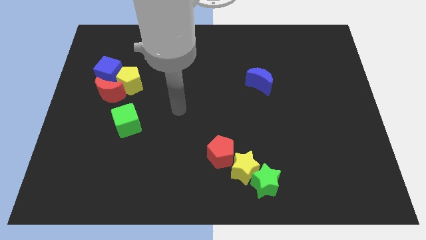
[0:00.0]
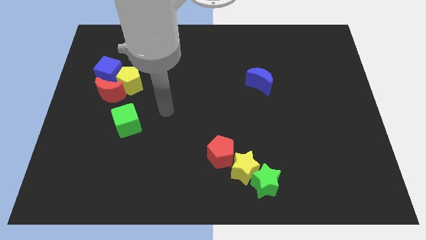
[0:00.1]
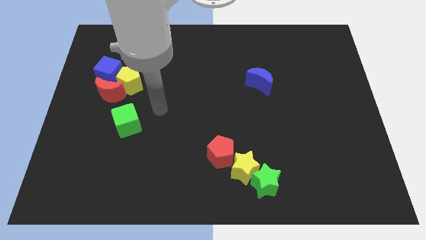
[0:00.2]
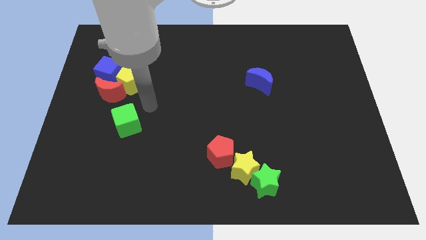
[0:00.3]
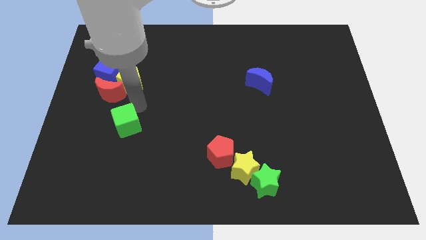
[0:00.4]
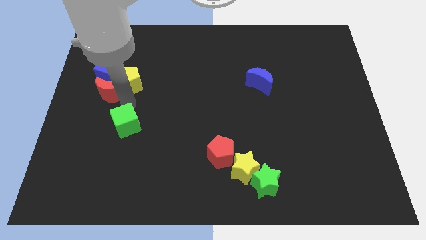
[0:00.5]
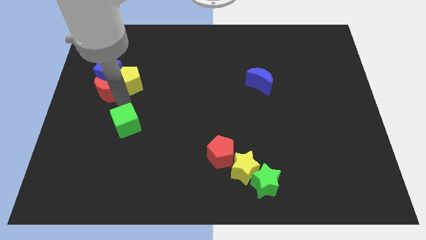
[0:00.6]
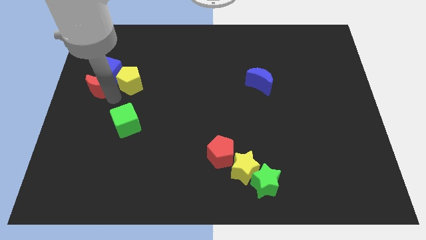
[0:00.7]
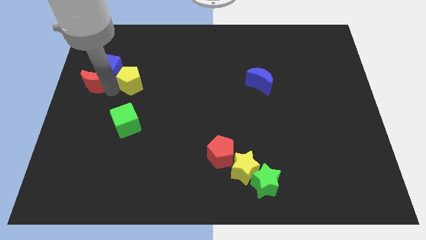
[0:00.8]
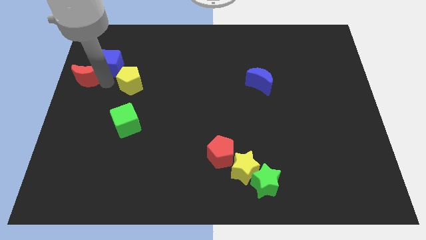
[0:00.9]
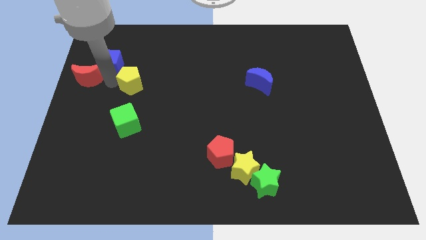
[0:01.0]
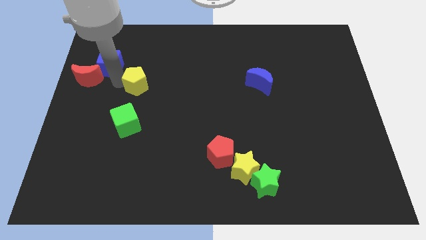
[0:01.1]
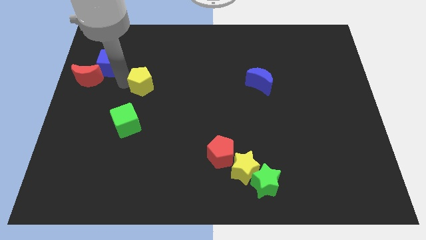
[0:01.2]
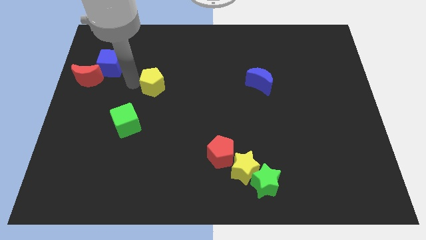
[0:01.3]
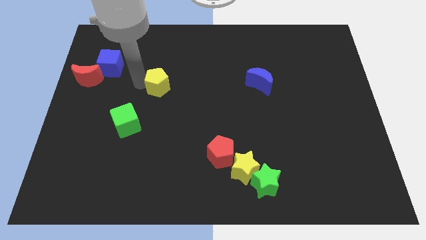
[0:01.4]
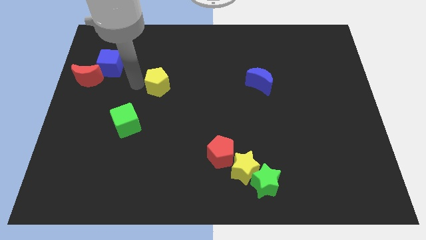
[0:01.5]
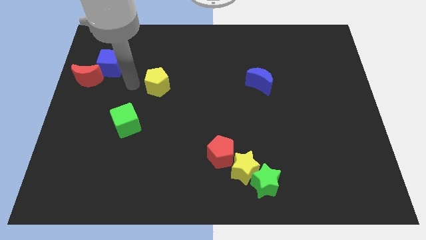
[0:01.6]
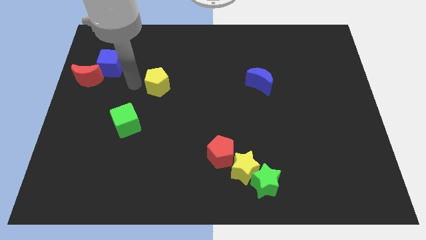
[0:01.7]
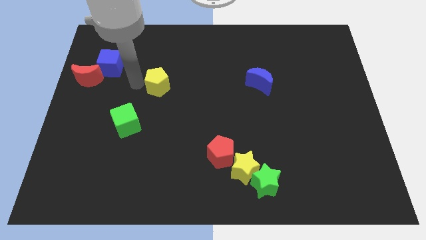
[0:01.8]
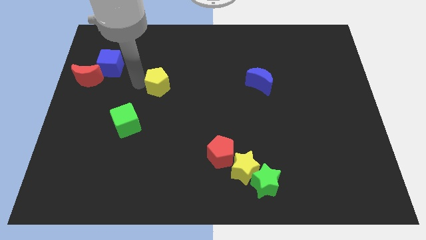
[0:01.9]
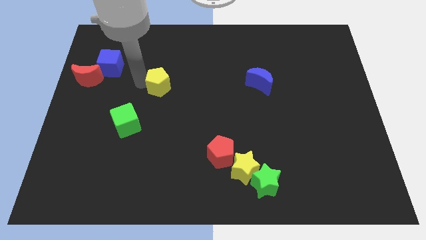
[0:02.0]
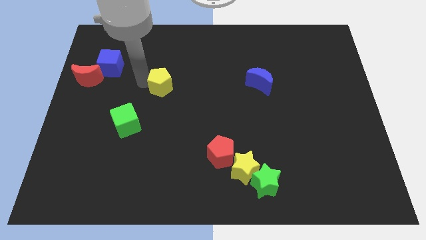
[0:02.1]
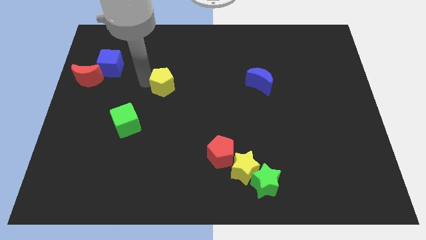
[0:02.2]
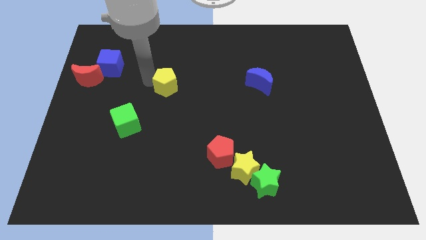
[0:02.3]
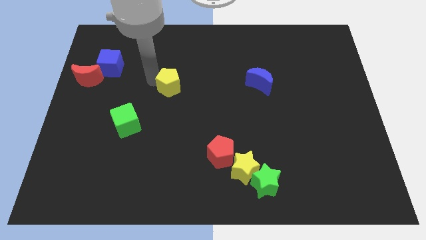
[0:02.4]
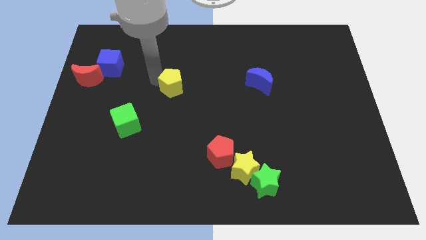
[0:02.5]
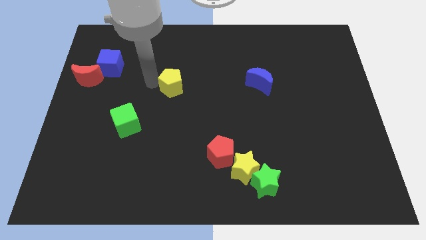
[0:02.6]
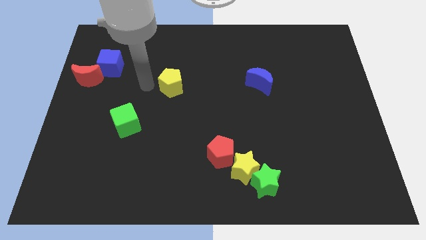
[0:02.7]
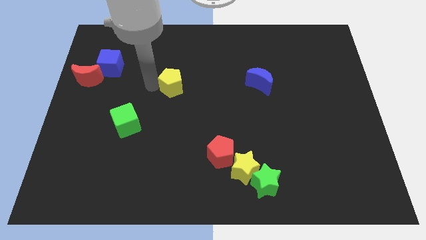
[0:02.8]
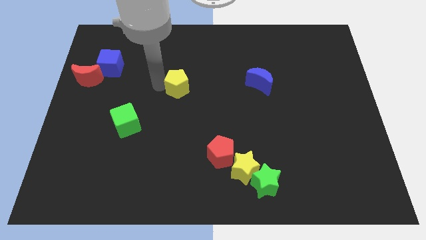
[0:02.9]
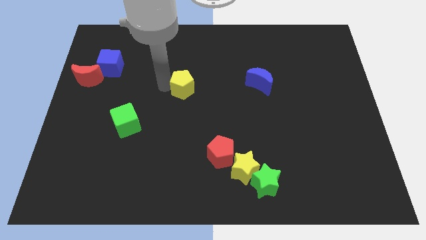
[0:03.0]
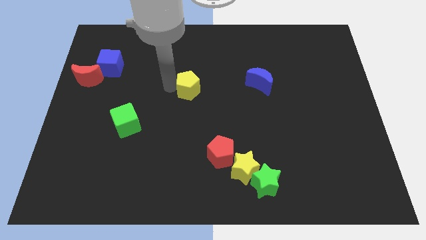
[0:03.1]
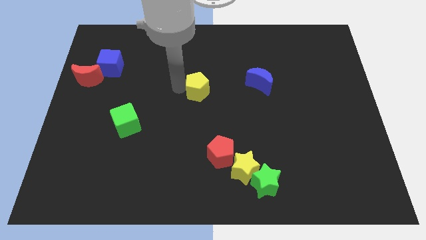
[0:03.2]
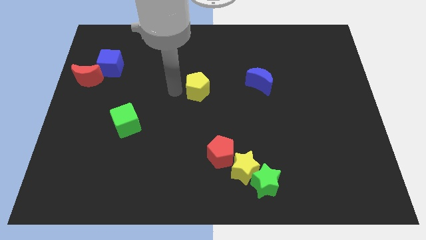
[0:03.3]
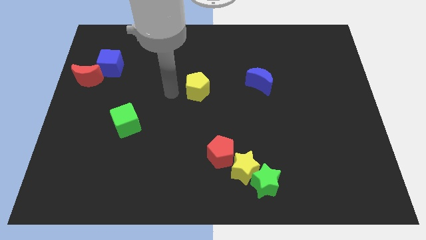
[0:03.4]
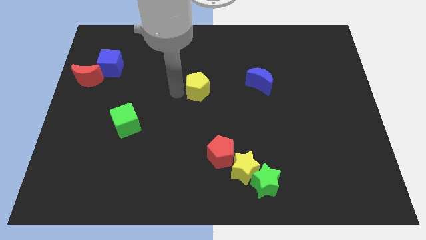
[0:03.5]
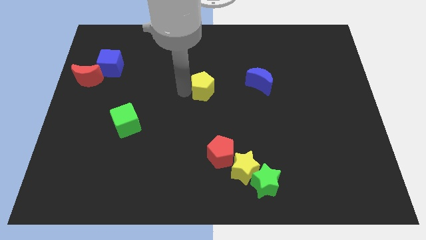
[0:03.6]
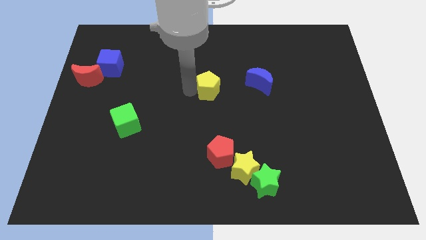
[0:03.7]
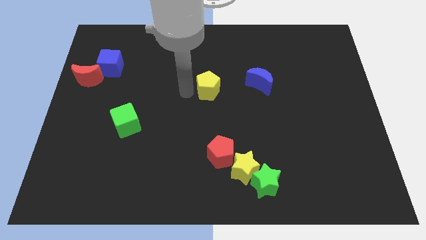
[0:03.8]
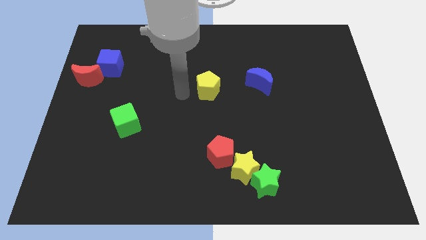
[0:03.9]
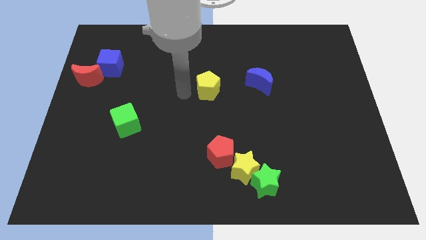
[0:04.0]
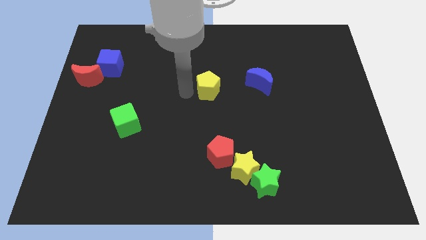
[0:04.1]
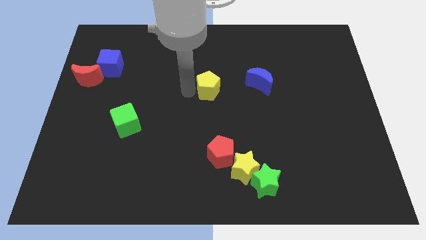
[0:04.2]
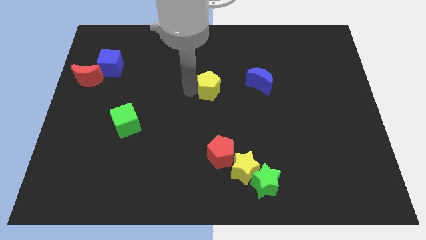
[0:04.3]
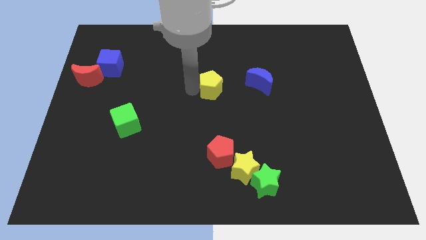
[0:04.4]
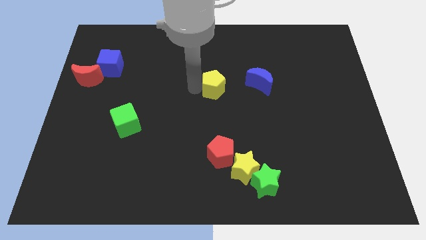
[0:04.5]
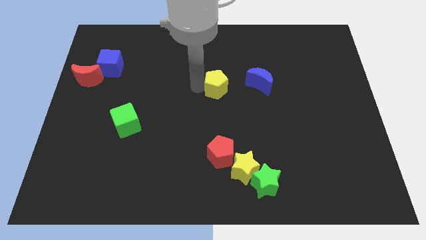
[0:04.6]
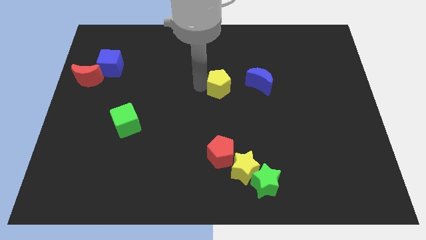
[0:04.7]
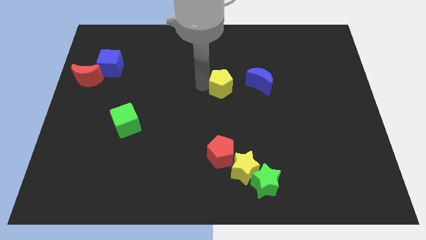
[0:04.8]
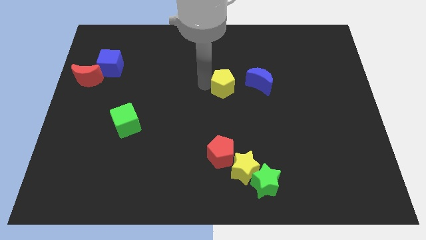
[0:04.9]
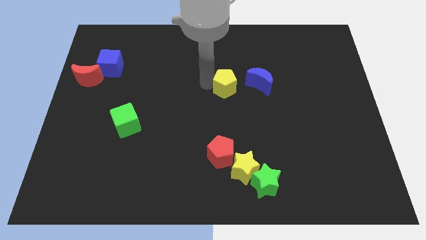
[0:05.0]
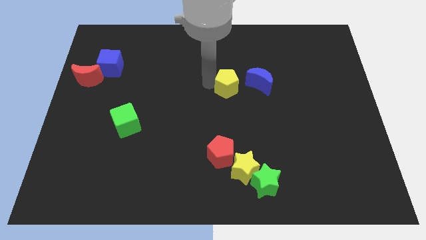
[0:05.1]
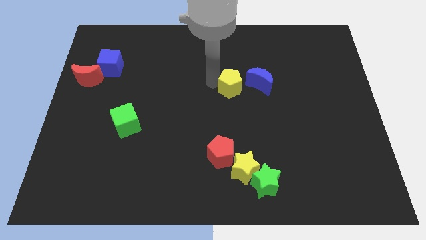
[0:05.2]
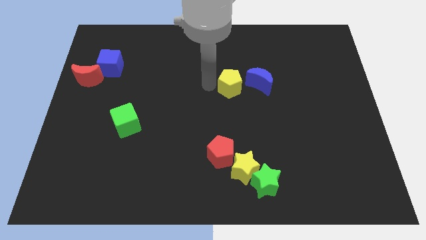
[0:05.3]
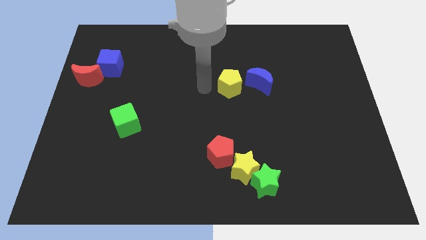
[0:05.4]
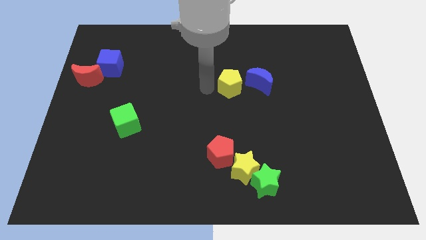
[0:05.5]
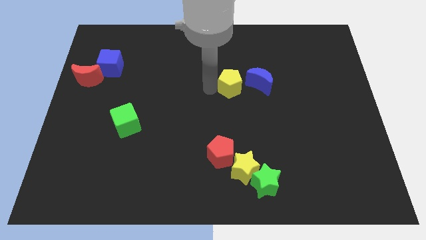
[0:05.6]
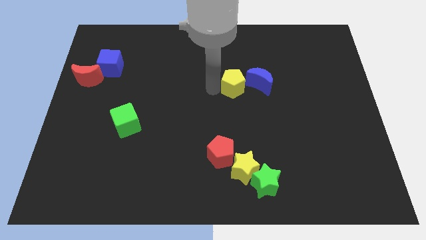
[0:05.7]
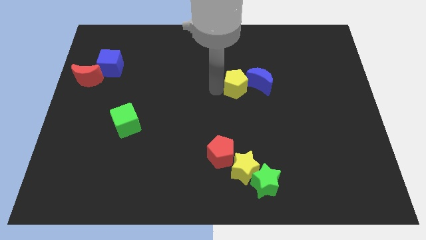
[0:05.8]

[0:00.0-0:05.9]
push the yellow pentagon close to the blue moon

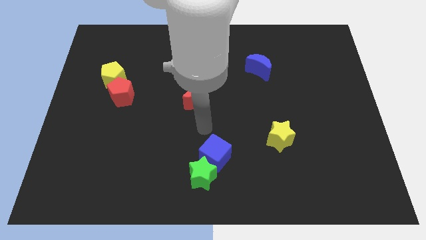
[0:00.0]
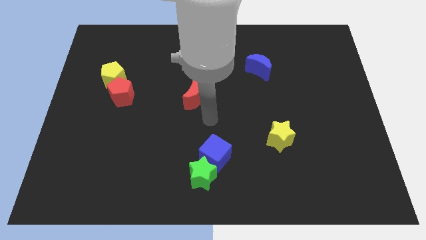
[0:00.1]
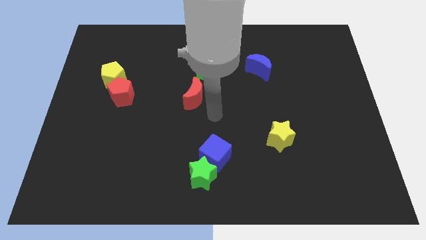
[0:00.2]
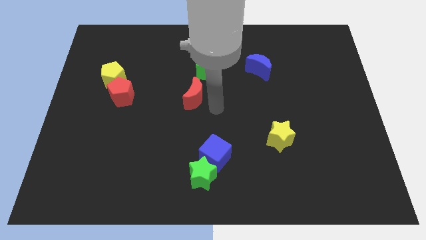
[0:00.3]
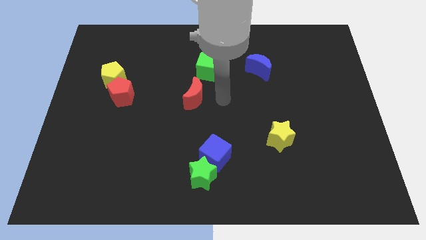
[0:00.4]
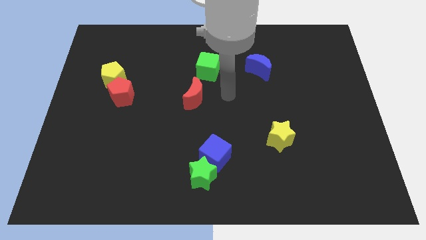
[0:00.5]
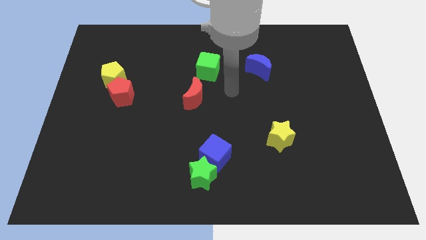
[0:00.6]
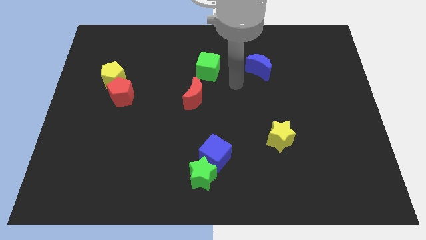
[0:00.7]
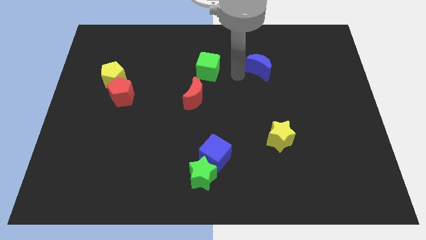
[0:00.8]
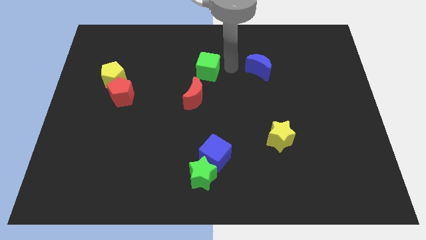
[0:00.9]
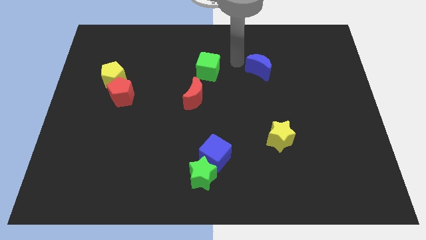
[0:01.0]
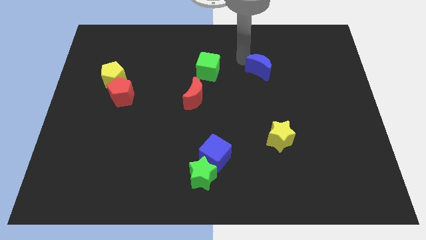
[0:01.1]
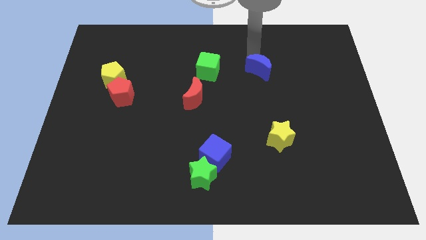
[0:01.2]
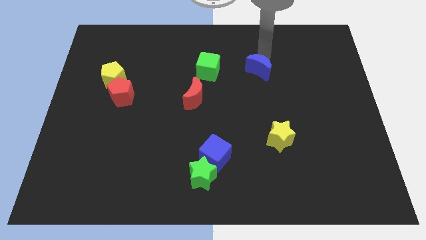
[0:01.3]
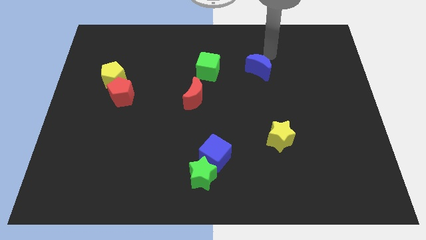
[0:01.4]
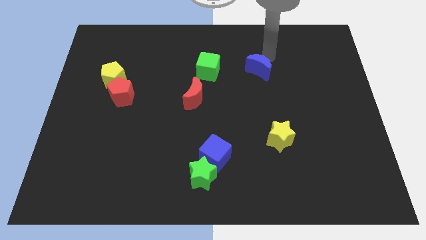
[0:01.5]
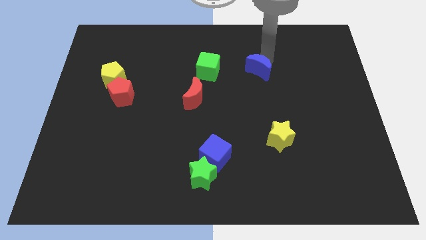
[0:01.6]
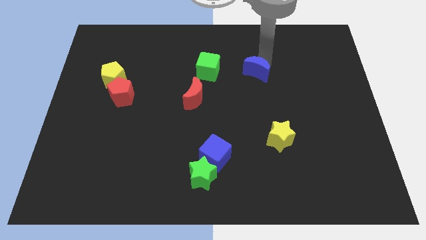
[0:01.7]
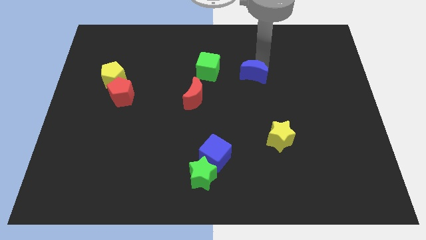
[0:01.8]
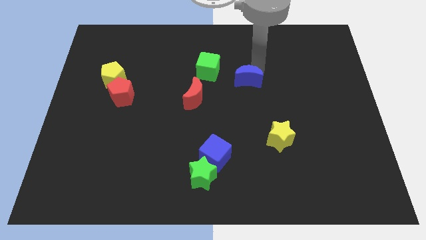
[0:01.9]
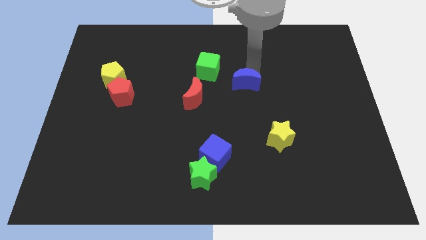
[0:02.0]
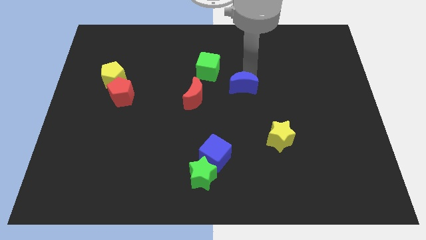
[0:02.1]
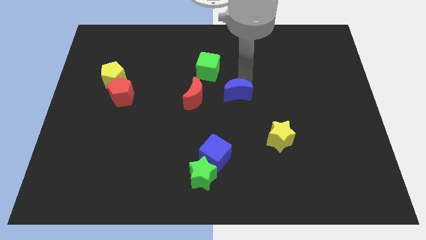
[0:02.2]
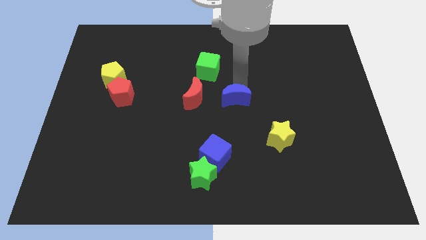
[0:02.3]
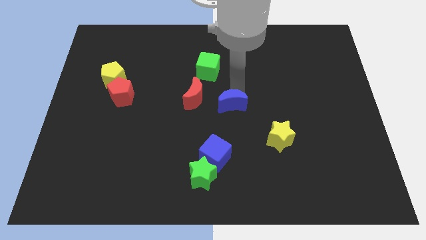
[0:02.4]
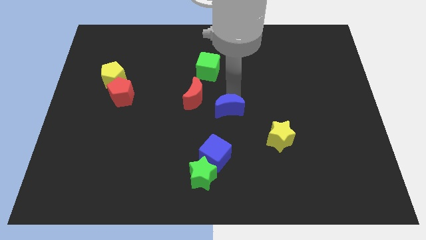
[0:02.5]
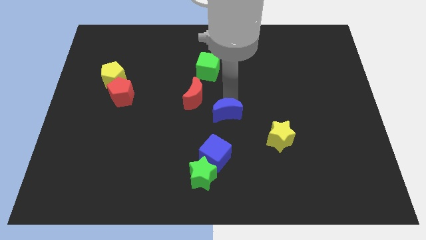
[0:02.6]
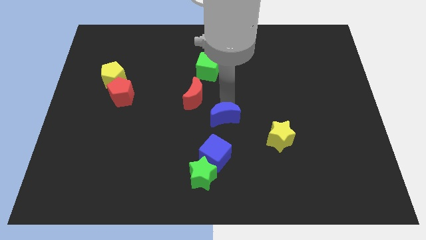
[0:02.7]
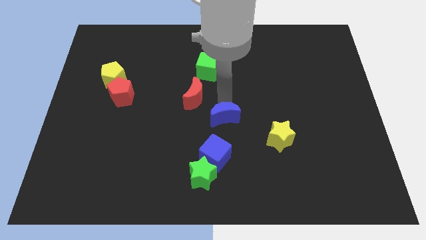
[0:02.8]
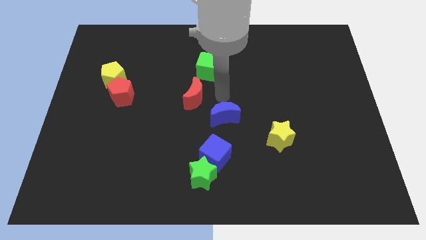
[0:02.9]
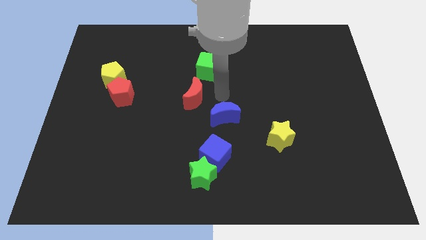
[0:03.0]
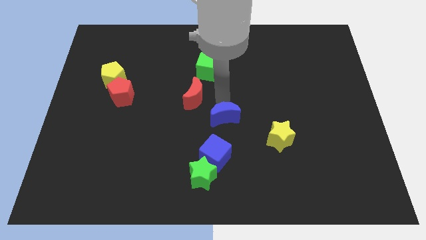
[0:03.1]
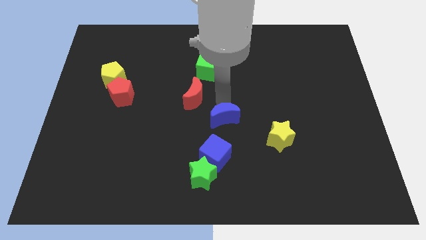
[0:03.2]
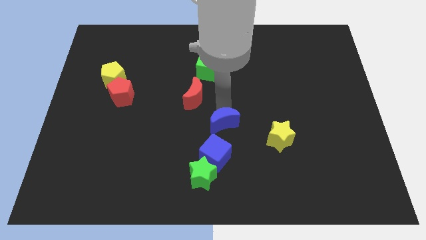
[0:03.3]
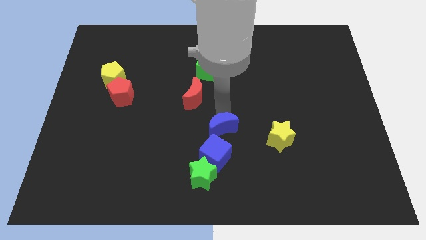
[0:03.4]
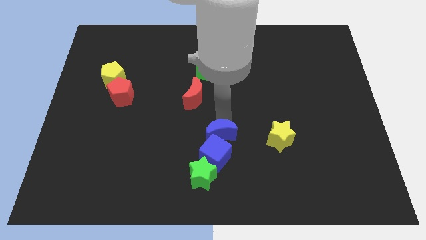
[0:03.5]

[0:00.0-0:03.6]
push the blue moon to the blue cube
